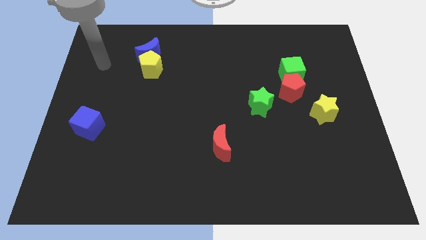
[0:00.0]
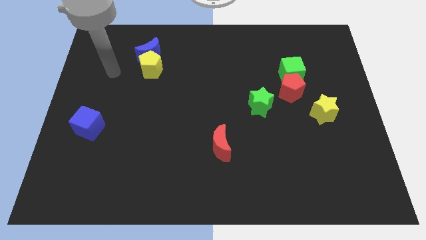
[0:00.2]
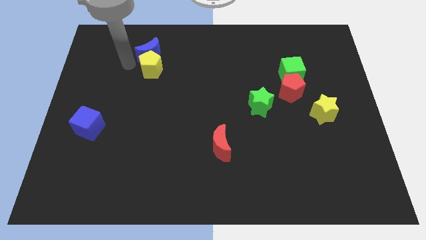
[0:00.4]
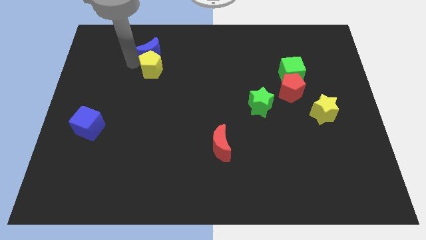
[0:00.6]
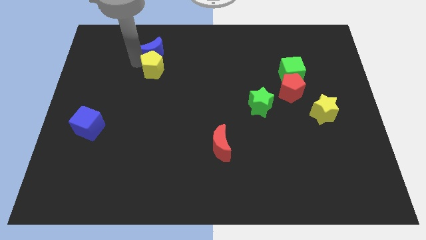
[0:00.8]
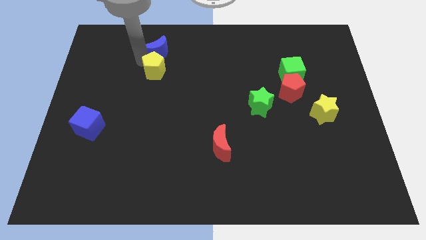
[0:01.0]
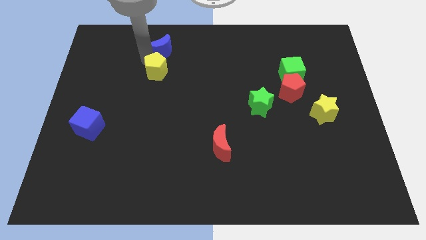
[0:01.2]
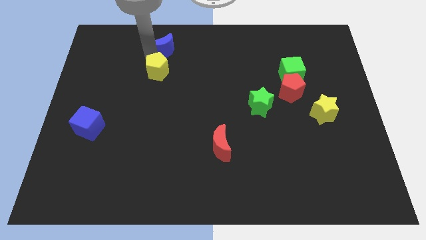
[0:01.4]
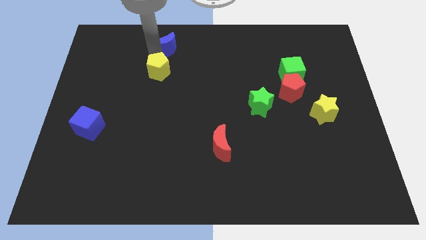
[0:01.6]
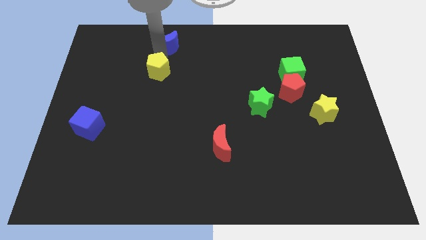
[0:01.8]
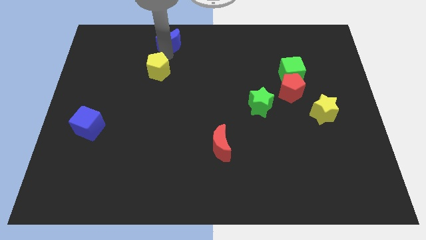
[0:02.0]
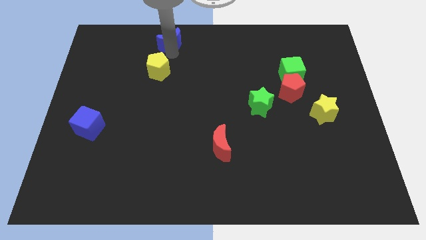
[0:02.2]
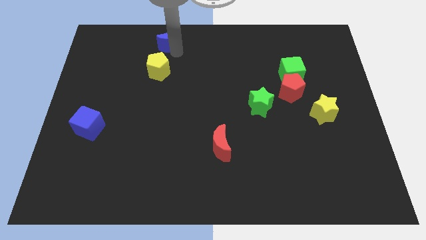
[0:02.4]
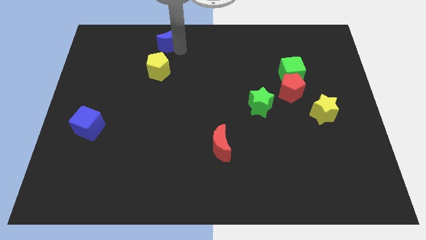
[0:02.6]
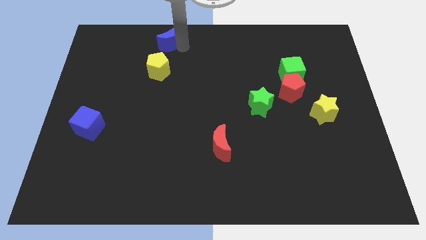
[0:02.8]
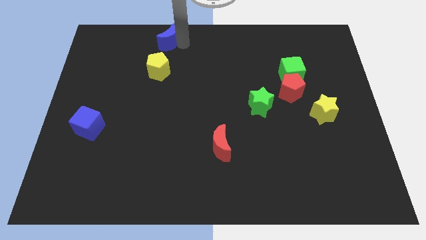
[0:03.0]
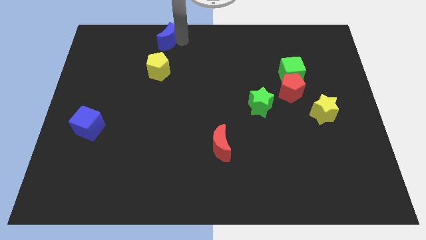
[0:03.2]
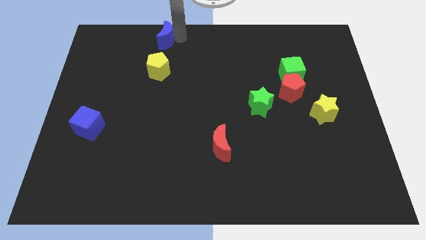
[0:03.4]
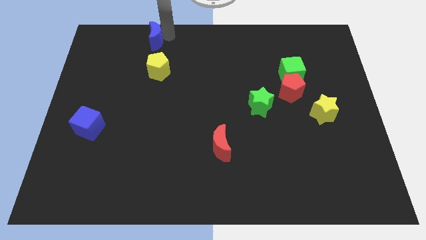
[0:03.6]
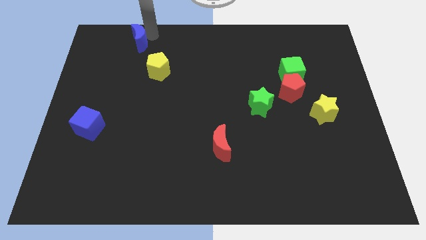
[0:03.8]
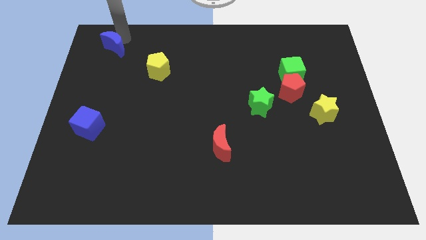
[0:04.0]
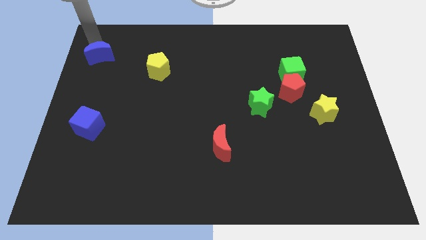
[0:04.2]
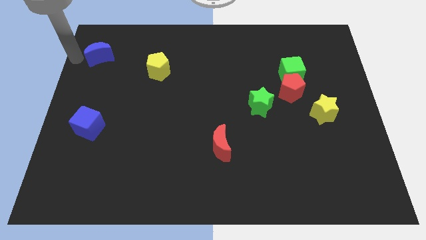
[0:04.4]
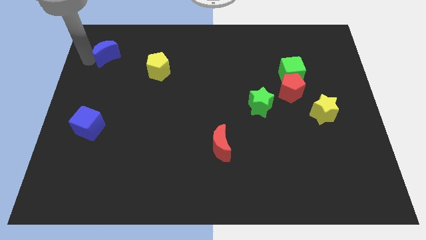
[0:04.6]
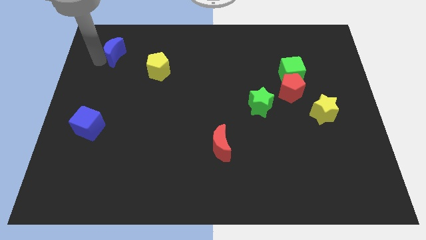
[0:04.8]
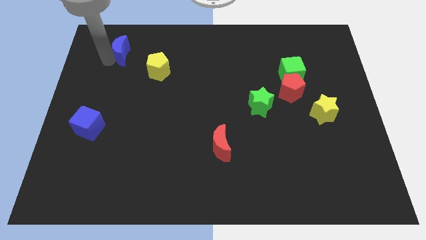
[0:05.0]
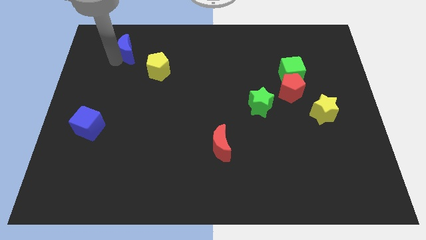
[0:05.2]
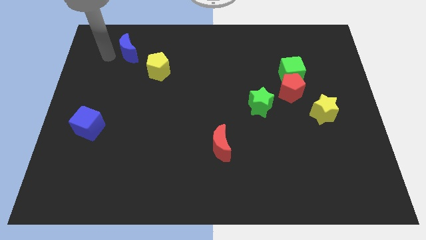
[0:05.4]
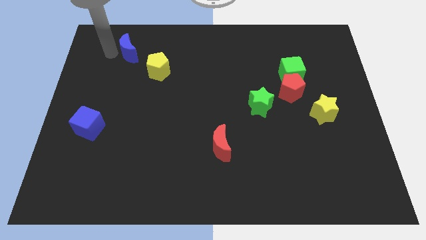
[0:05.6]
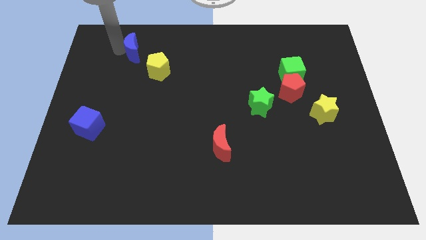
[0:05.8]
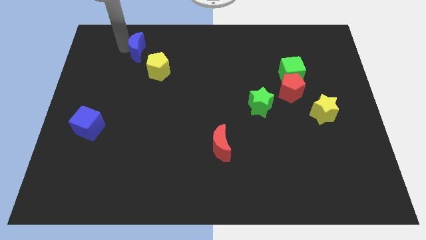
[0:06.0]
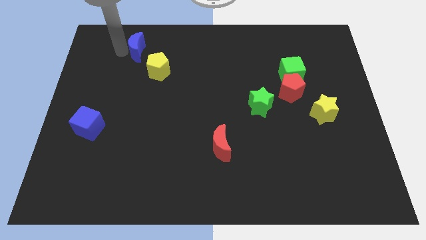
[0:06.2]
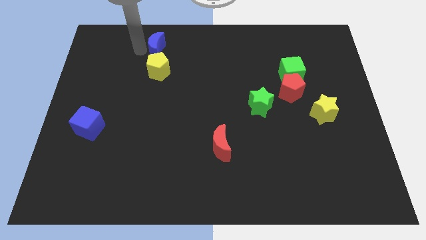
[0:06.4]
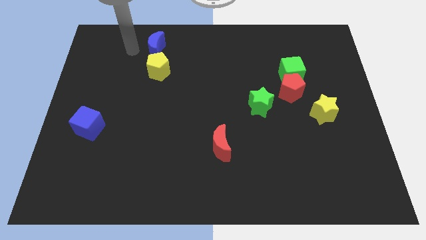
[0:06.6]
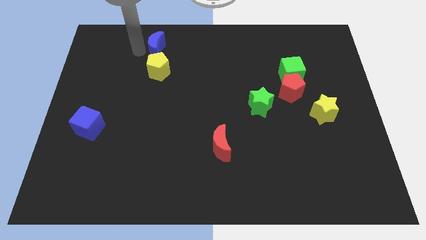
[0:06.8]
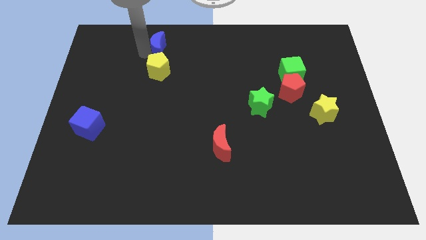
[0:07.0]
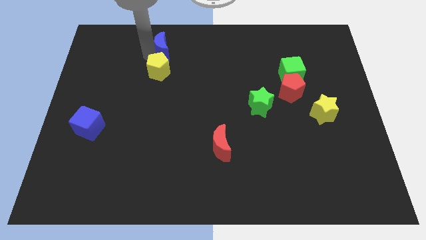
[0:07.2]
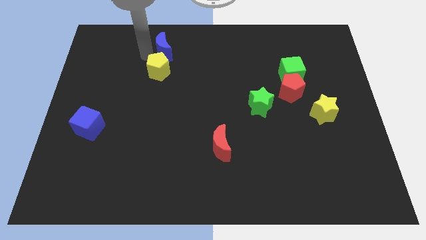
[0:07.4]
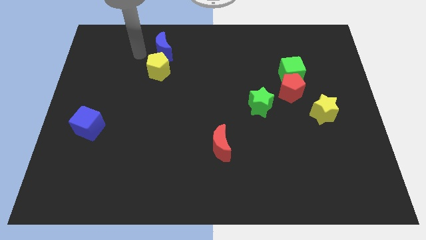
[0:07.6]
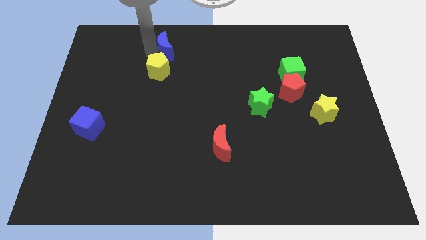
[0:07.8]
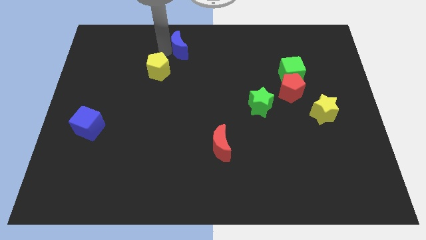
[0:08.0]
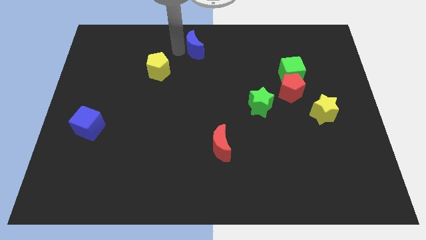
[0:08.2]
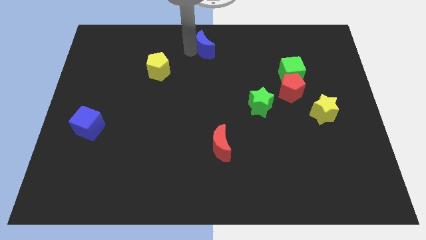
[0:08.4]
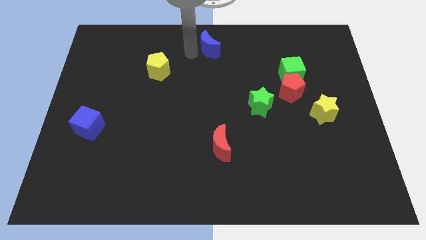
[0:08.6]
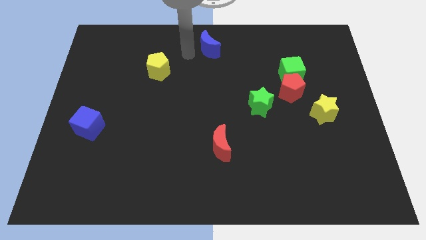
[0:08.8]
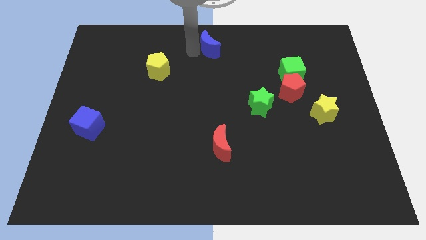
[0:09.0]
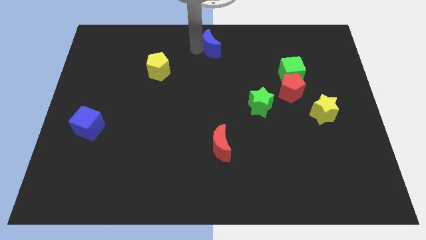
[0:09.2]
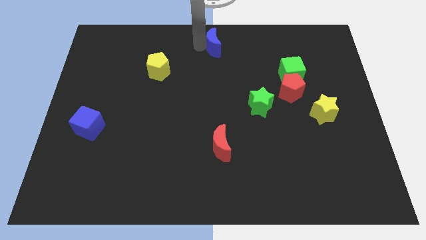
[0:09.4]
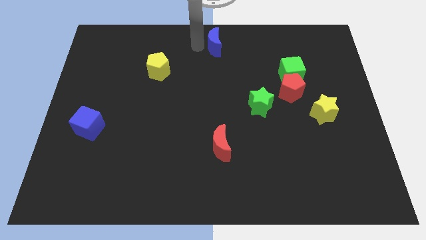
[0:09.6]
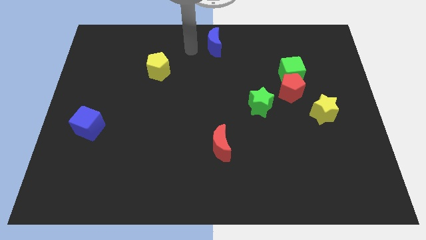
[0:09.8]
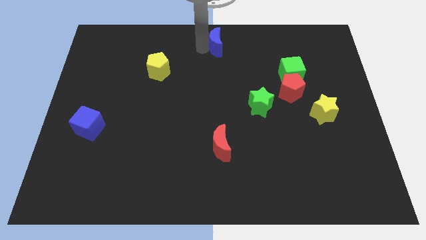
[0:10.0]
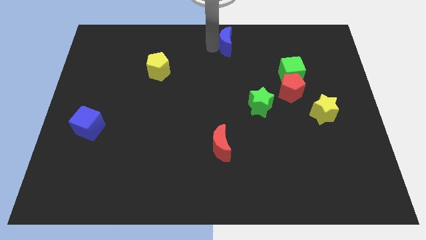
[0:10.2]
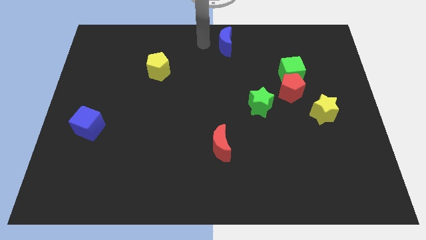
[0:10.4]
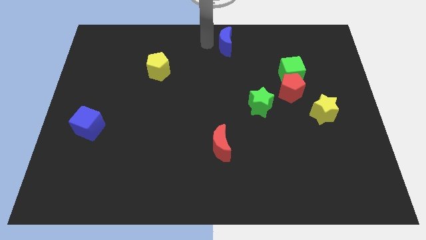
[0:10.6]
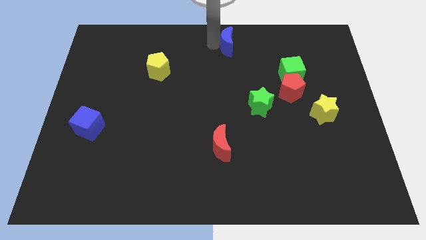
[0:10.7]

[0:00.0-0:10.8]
push the blue moon to the right

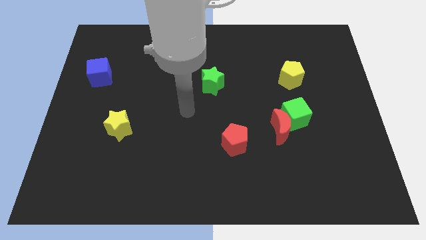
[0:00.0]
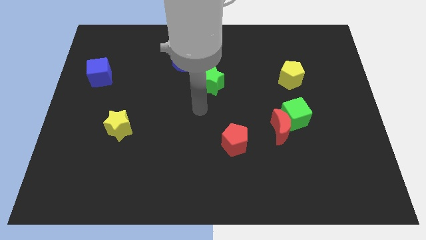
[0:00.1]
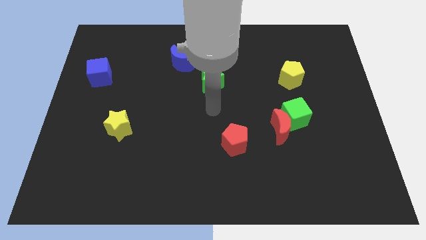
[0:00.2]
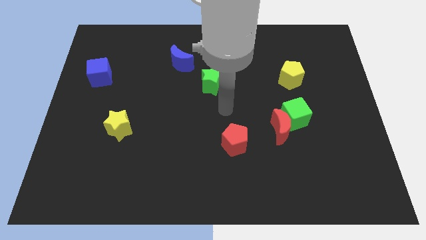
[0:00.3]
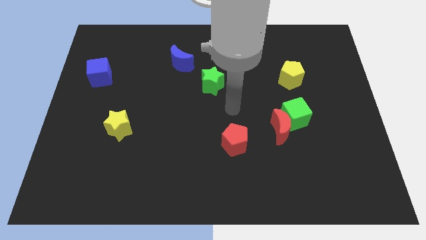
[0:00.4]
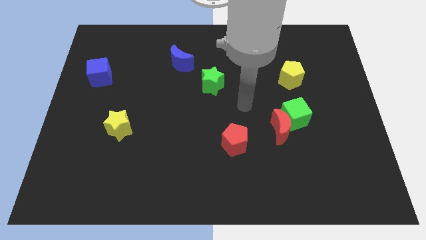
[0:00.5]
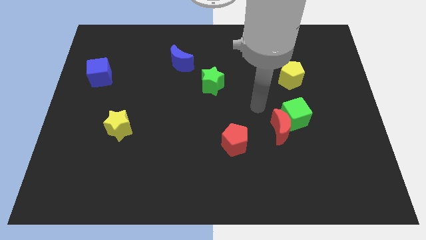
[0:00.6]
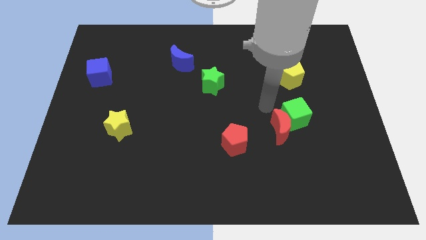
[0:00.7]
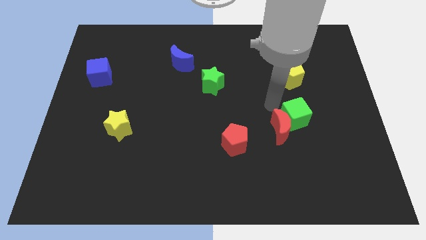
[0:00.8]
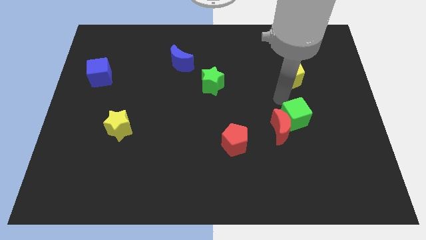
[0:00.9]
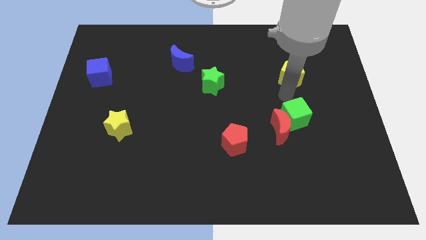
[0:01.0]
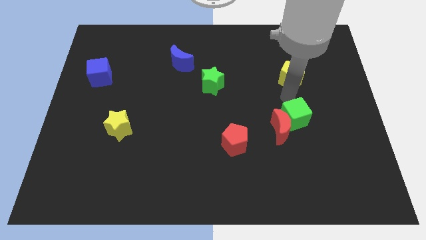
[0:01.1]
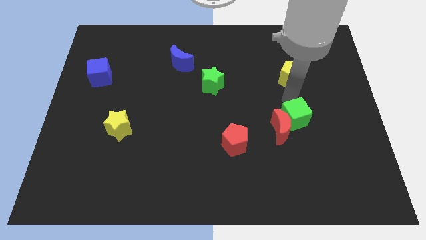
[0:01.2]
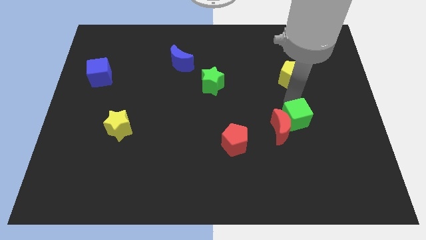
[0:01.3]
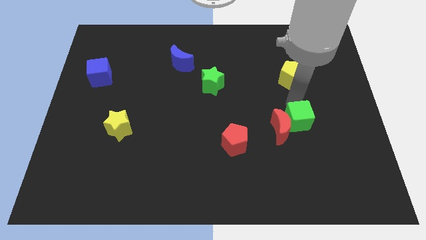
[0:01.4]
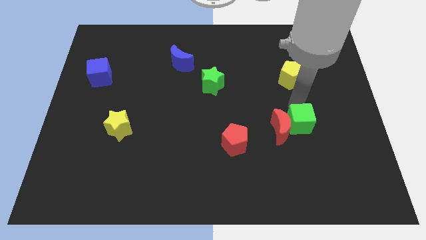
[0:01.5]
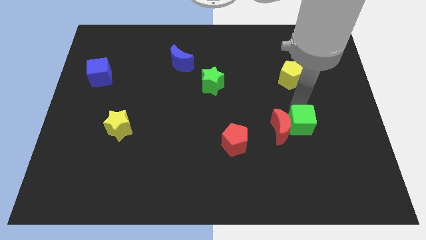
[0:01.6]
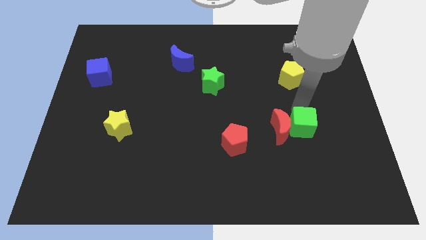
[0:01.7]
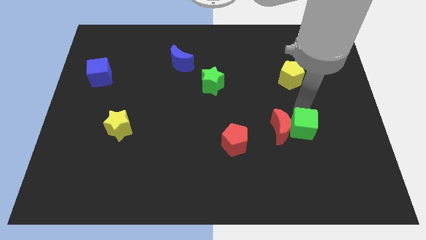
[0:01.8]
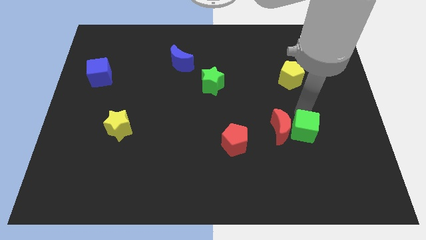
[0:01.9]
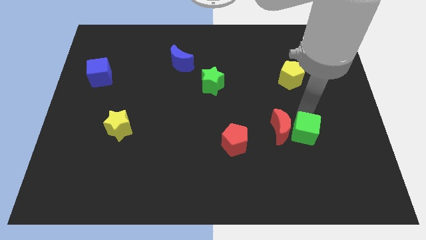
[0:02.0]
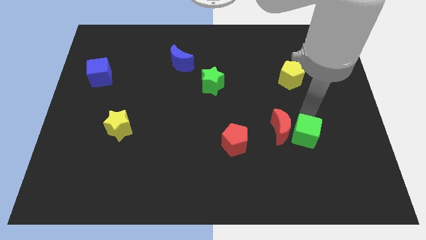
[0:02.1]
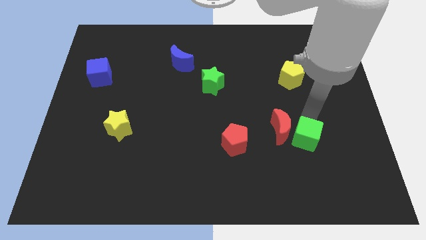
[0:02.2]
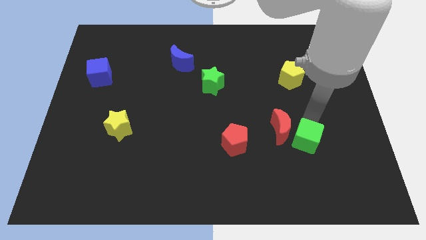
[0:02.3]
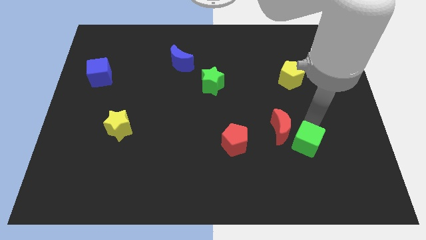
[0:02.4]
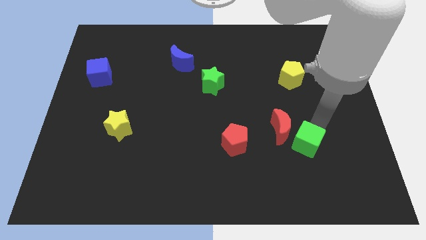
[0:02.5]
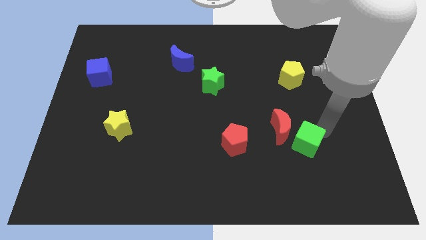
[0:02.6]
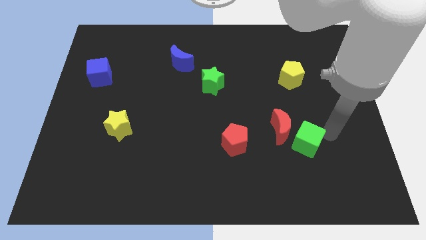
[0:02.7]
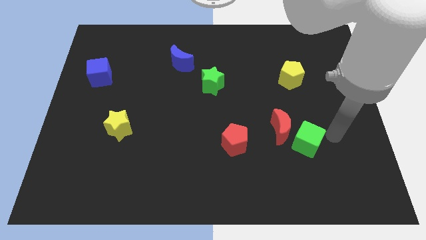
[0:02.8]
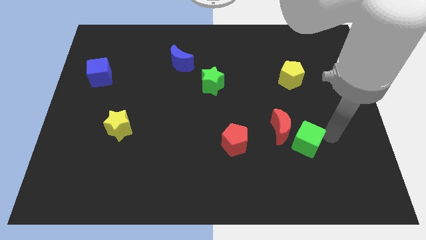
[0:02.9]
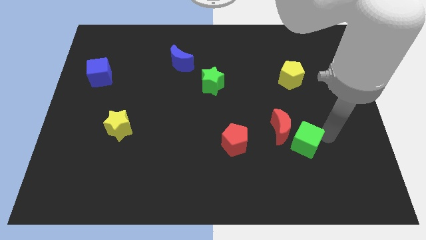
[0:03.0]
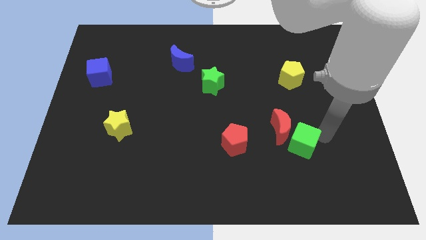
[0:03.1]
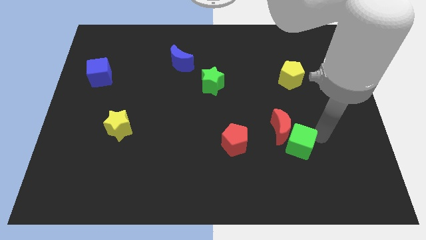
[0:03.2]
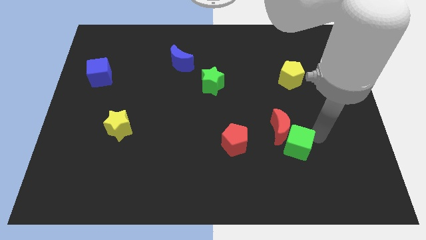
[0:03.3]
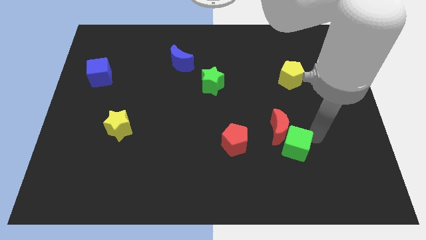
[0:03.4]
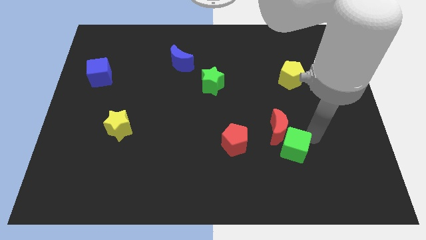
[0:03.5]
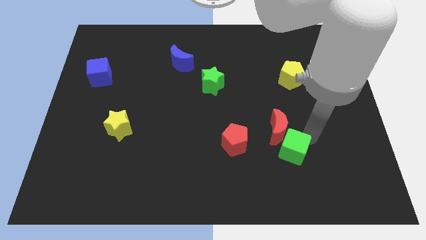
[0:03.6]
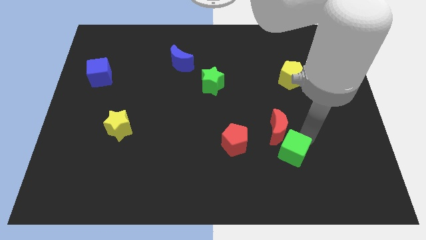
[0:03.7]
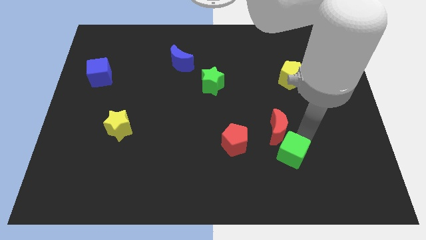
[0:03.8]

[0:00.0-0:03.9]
push the green cube somewhat down and then left
